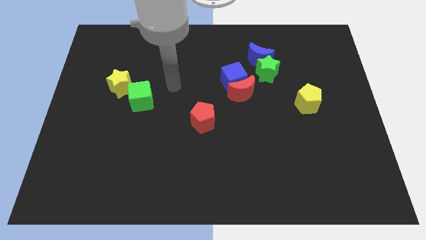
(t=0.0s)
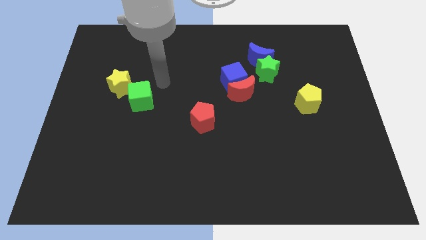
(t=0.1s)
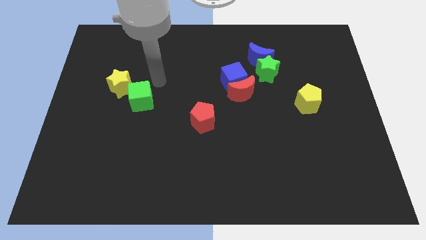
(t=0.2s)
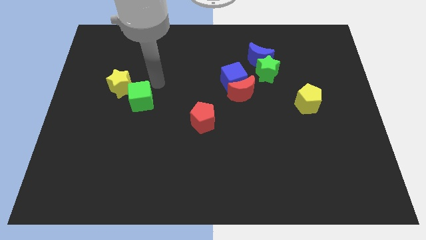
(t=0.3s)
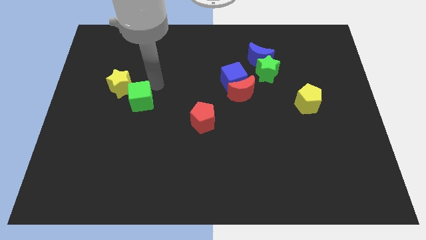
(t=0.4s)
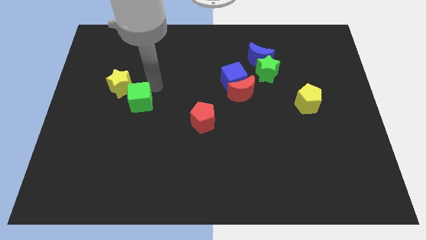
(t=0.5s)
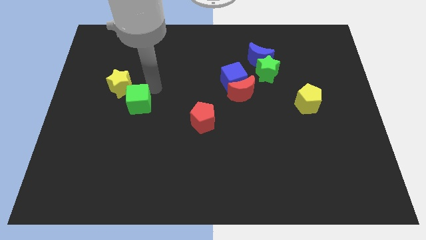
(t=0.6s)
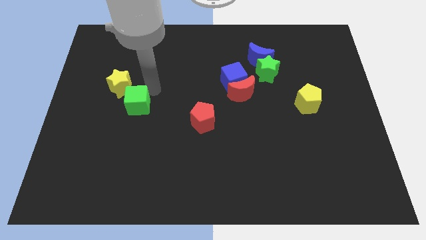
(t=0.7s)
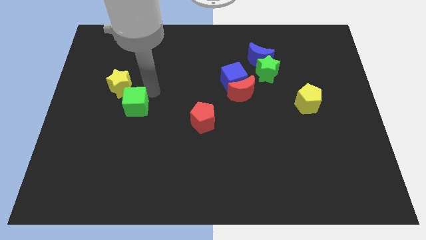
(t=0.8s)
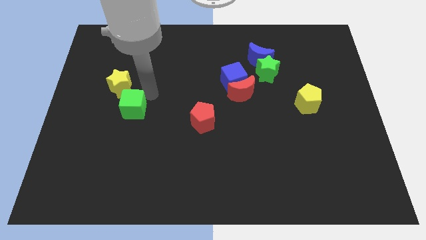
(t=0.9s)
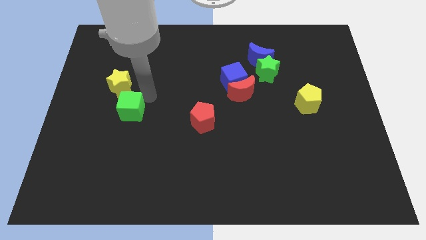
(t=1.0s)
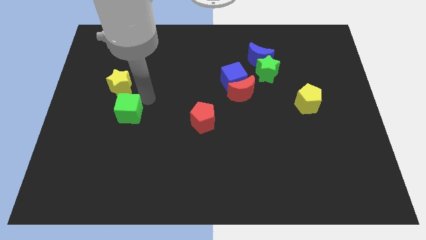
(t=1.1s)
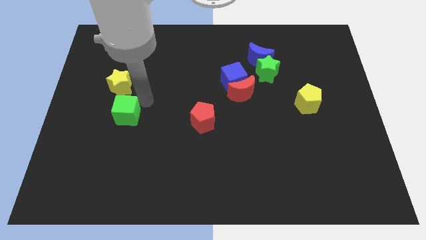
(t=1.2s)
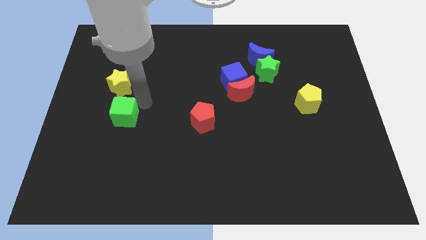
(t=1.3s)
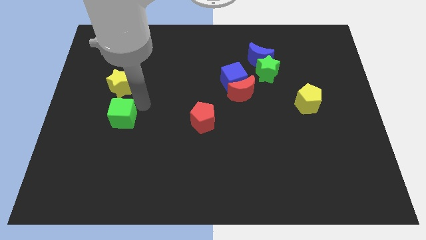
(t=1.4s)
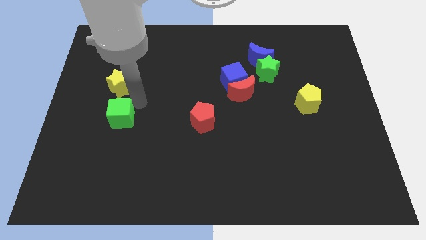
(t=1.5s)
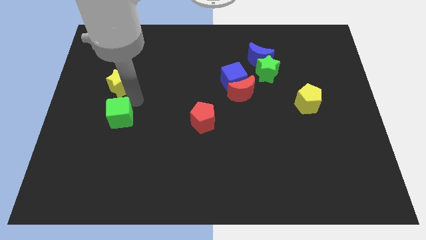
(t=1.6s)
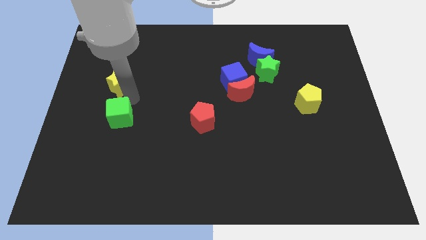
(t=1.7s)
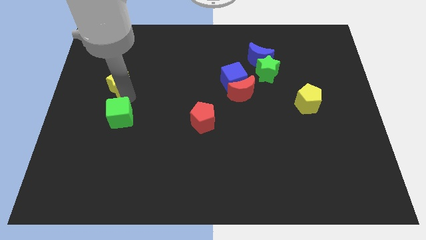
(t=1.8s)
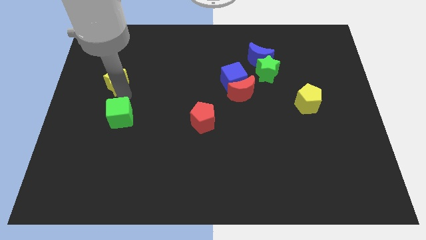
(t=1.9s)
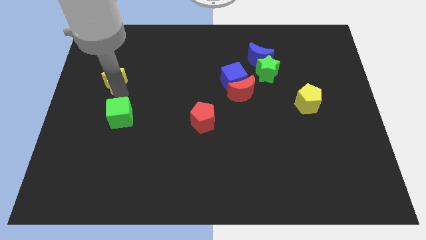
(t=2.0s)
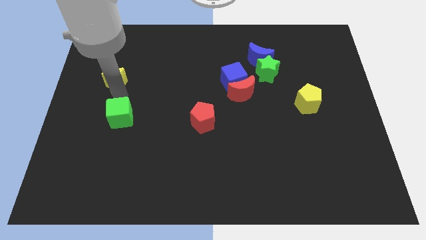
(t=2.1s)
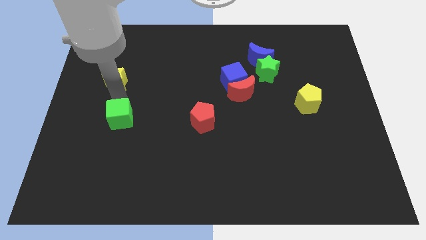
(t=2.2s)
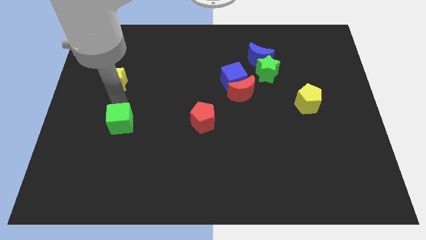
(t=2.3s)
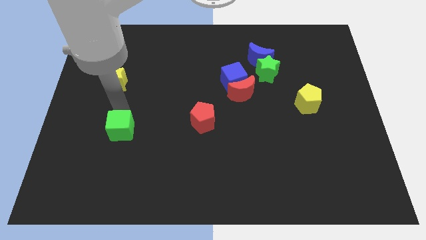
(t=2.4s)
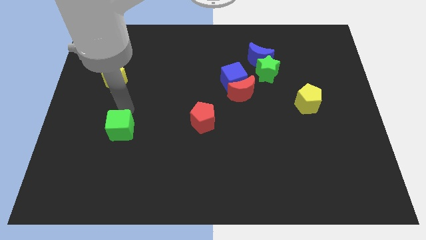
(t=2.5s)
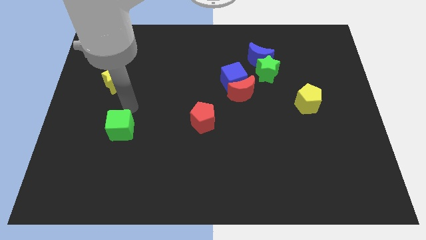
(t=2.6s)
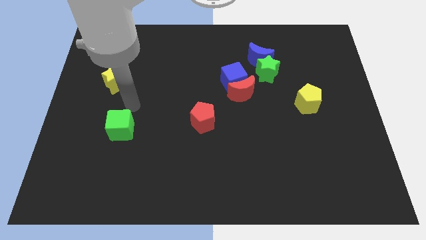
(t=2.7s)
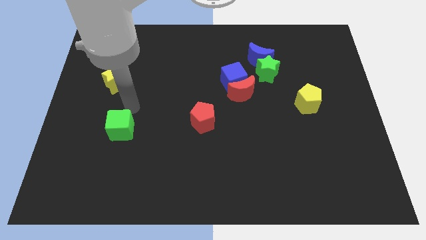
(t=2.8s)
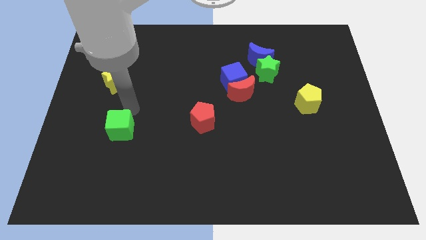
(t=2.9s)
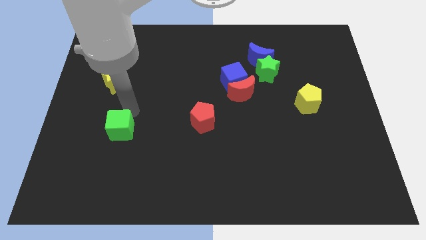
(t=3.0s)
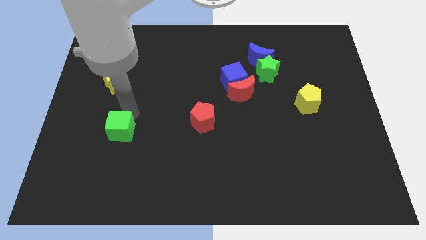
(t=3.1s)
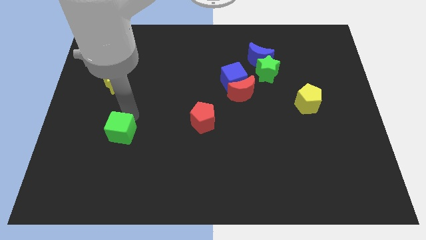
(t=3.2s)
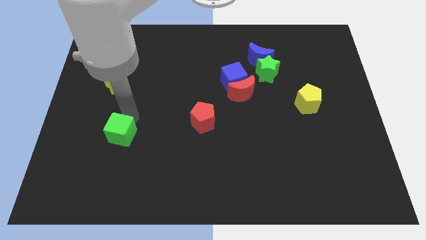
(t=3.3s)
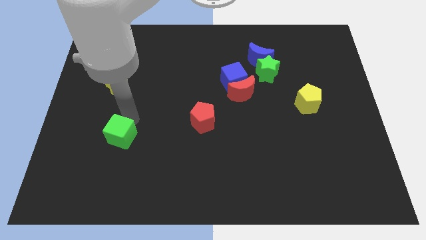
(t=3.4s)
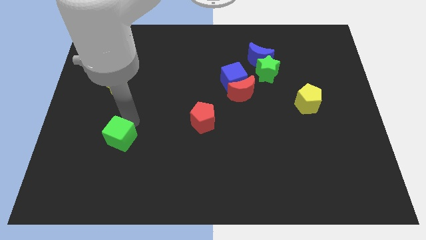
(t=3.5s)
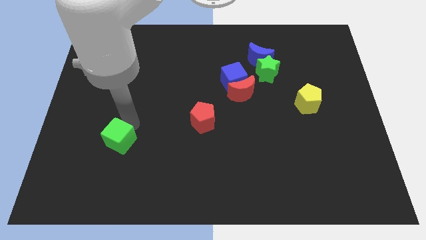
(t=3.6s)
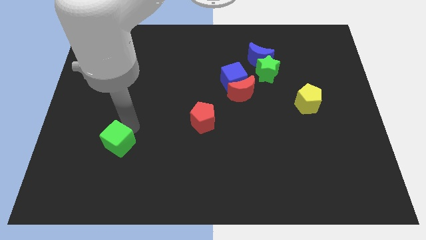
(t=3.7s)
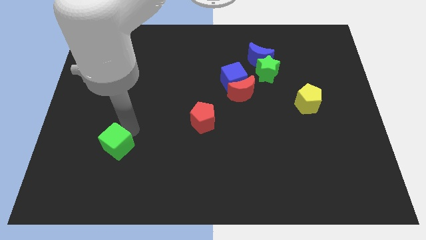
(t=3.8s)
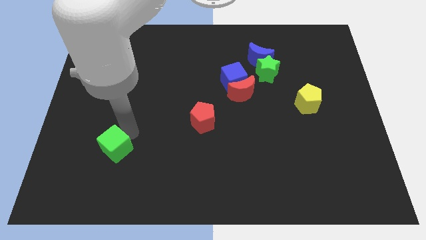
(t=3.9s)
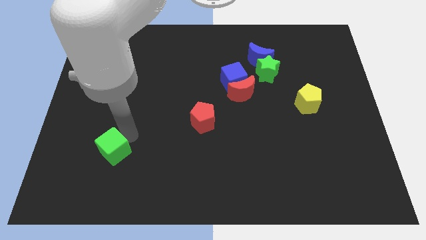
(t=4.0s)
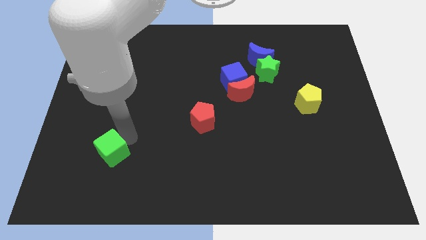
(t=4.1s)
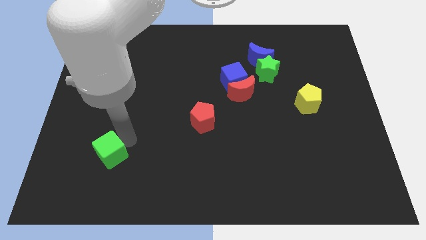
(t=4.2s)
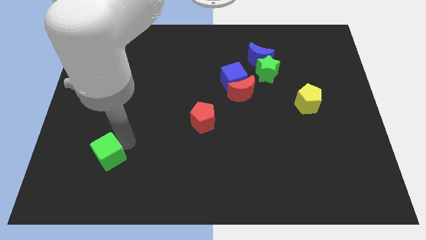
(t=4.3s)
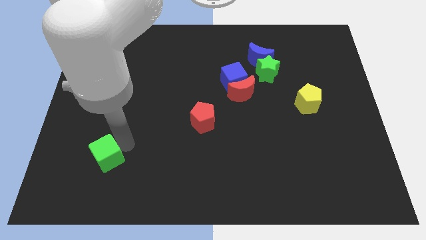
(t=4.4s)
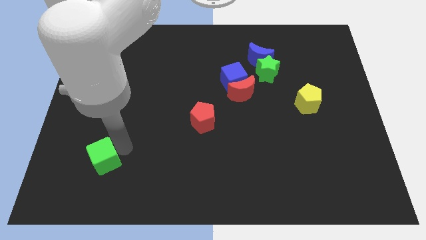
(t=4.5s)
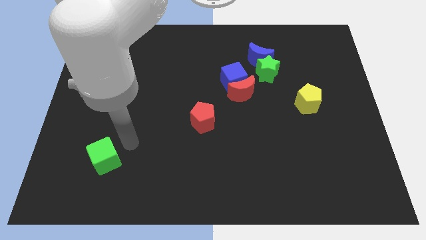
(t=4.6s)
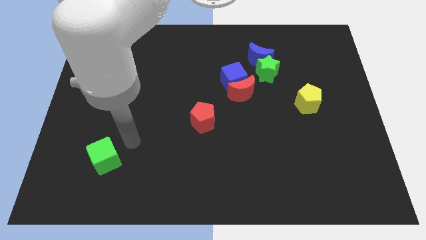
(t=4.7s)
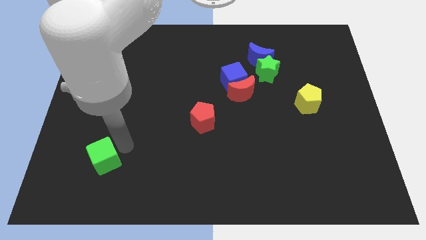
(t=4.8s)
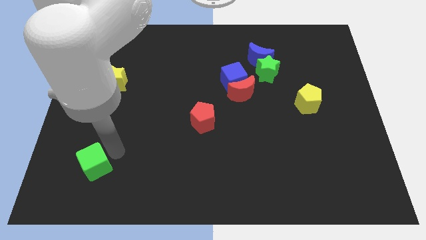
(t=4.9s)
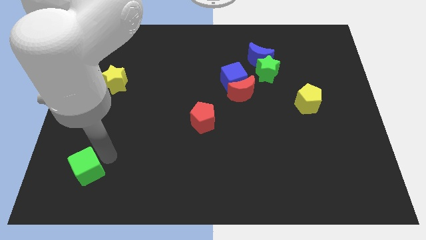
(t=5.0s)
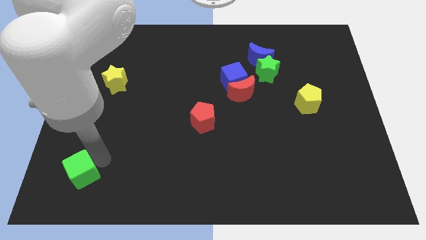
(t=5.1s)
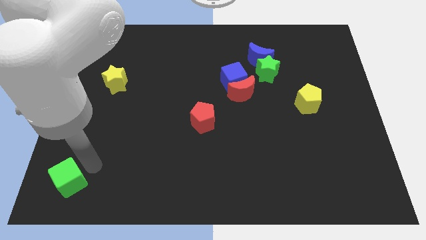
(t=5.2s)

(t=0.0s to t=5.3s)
put the green cube to the bottom left
